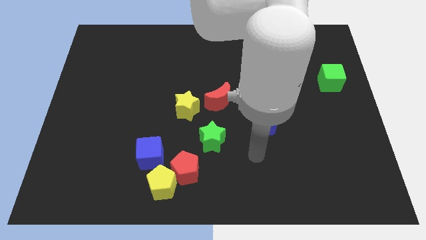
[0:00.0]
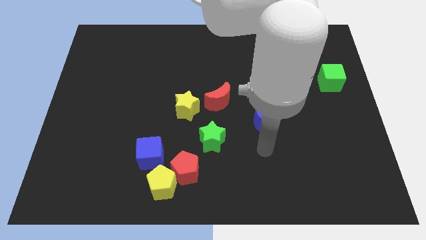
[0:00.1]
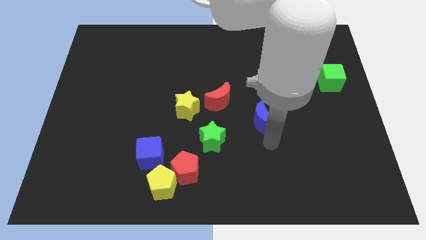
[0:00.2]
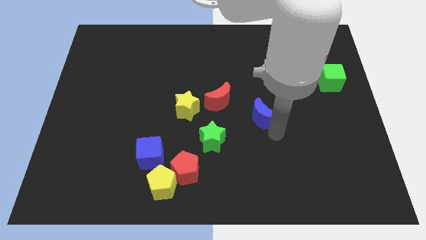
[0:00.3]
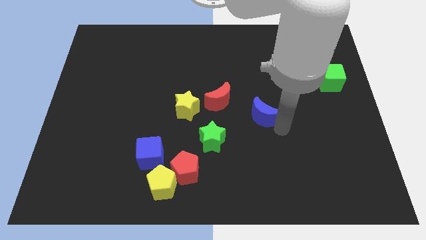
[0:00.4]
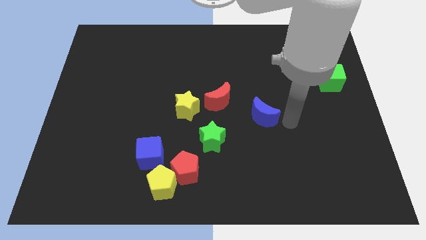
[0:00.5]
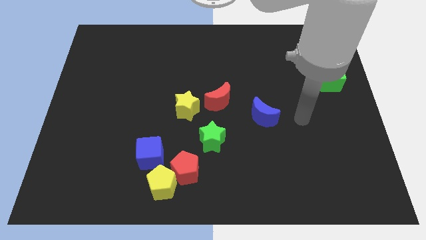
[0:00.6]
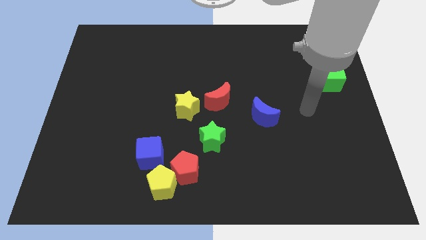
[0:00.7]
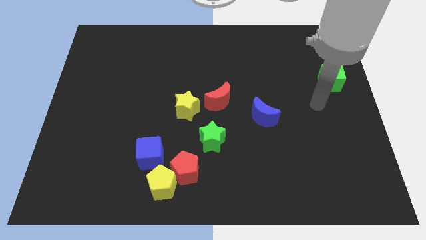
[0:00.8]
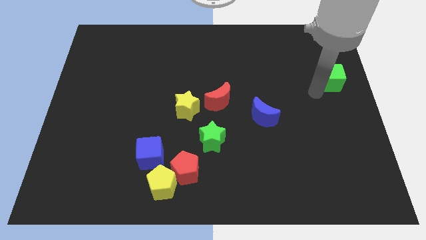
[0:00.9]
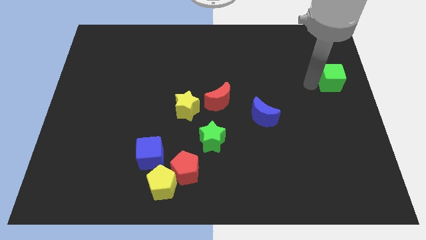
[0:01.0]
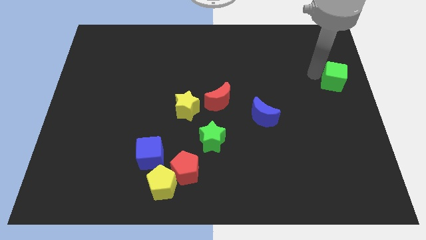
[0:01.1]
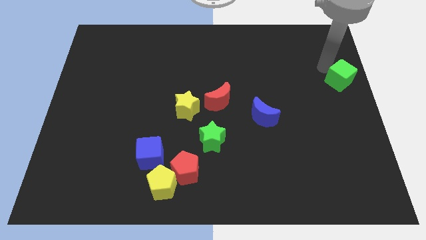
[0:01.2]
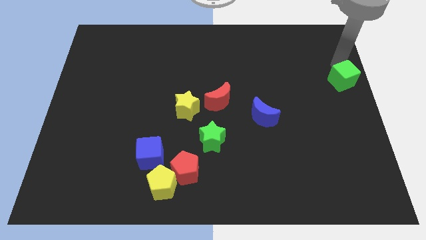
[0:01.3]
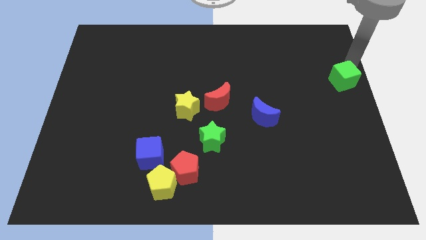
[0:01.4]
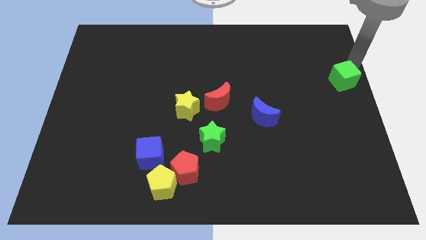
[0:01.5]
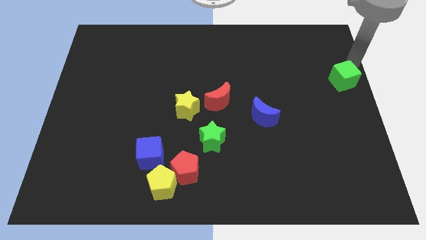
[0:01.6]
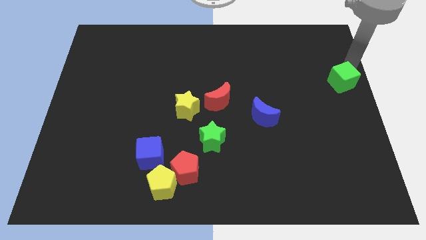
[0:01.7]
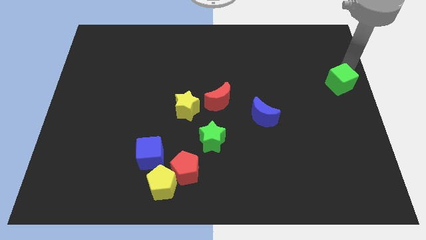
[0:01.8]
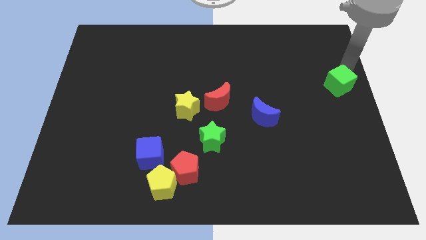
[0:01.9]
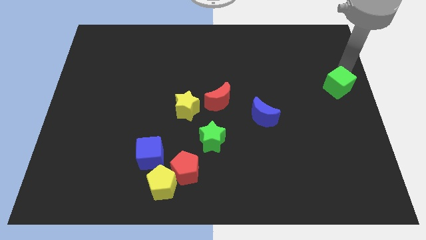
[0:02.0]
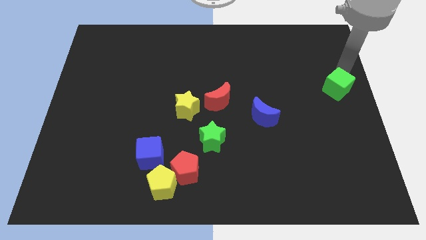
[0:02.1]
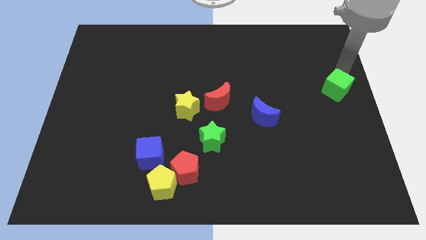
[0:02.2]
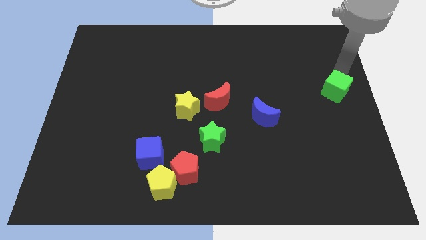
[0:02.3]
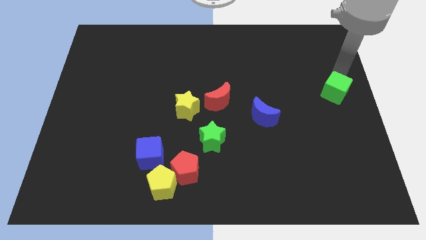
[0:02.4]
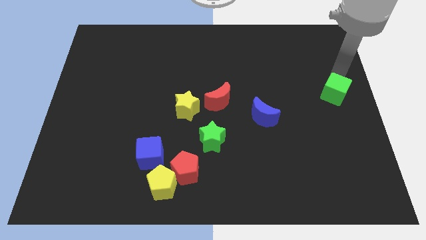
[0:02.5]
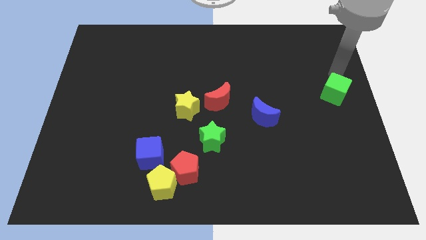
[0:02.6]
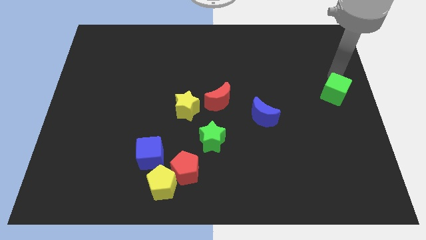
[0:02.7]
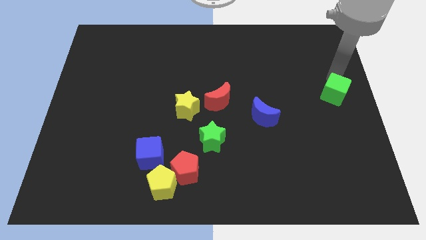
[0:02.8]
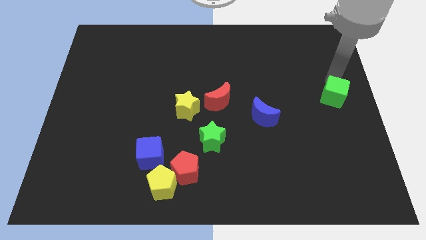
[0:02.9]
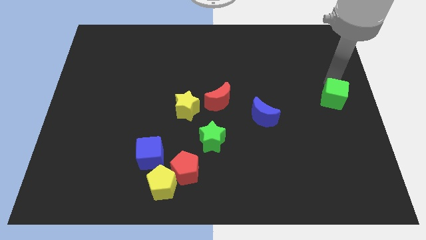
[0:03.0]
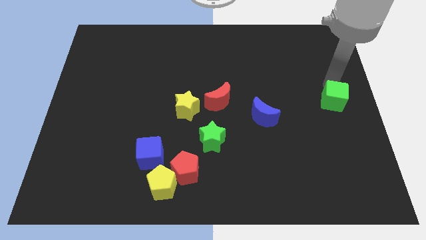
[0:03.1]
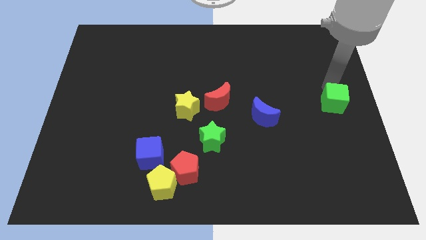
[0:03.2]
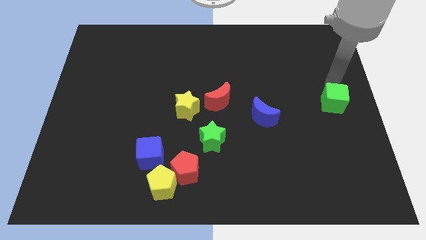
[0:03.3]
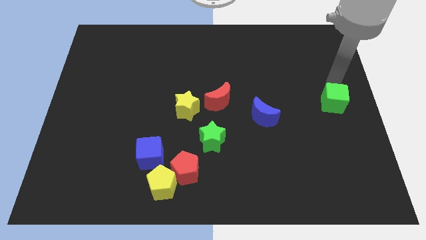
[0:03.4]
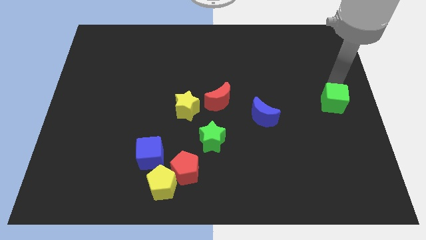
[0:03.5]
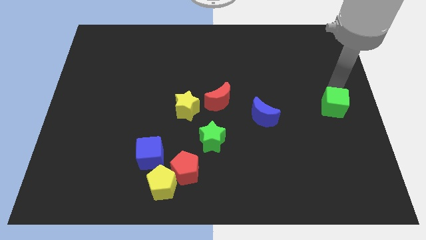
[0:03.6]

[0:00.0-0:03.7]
slide the green cube a little bit downwards

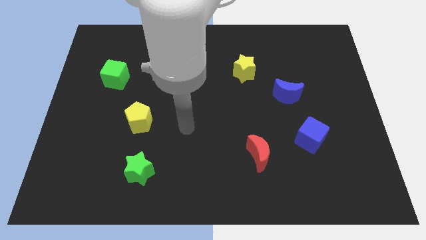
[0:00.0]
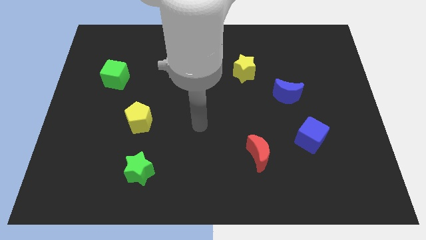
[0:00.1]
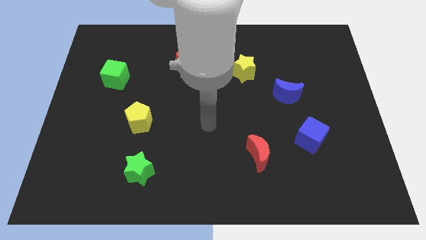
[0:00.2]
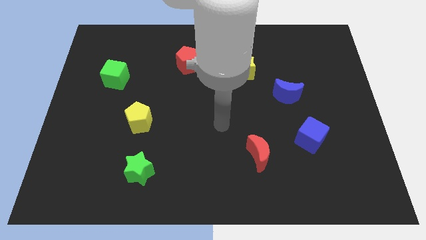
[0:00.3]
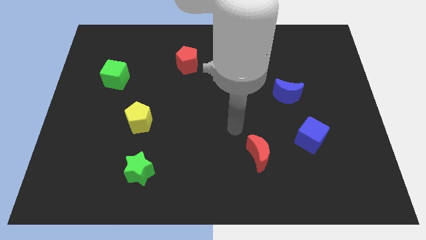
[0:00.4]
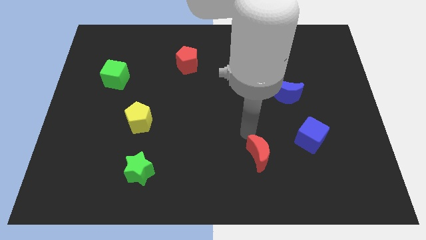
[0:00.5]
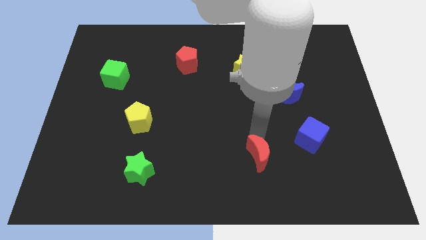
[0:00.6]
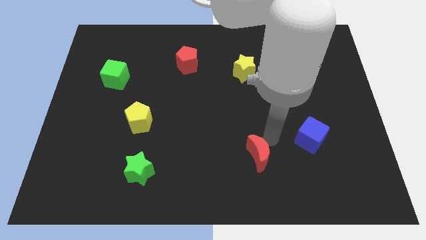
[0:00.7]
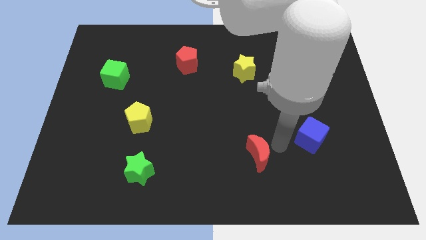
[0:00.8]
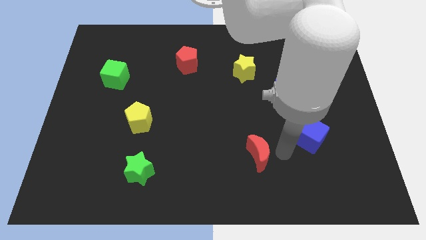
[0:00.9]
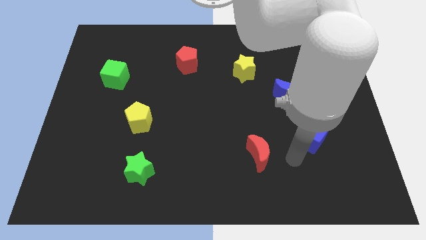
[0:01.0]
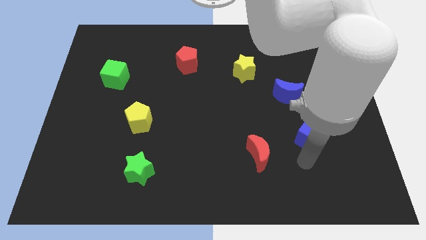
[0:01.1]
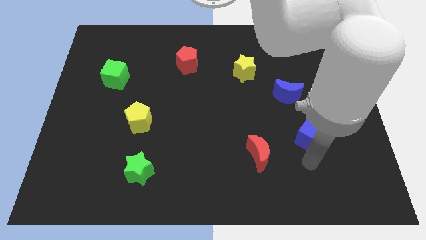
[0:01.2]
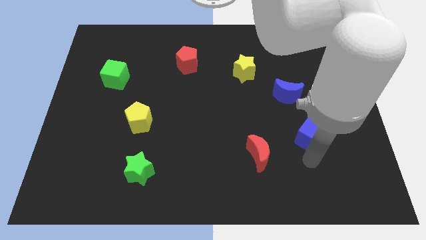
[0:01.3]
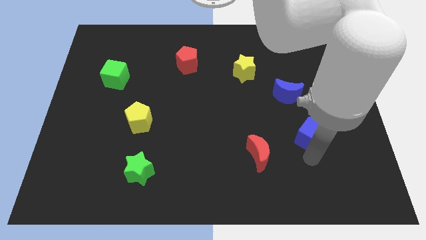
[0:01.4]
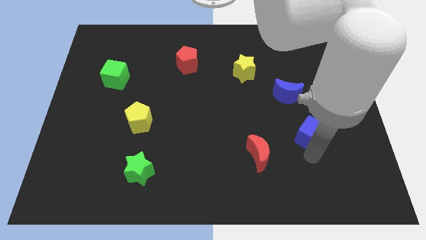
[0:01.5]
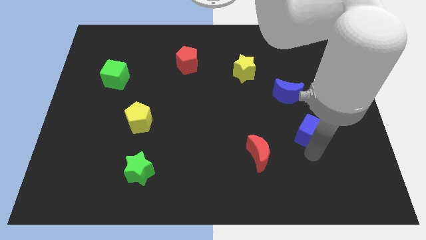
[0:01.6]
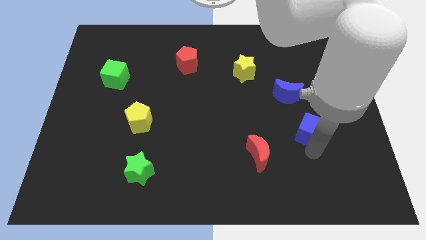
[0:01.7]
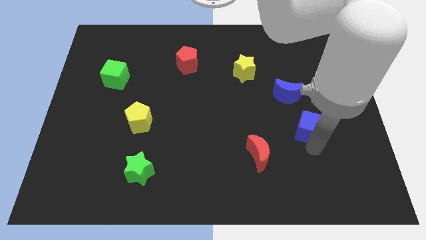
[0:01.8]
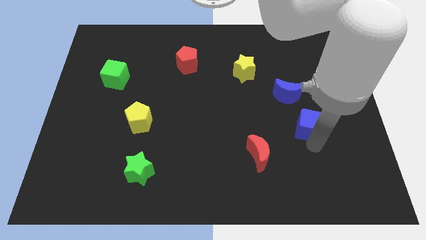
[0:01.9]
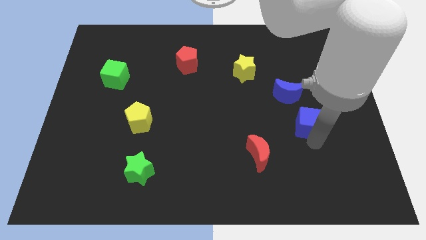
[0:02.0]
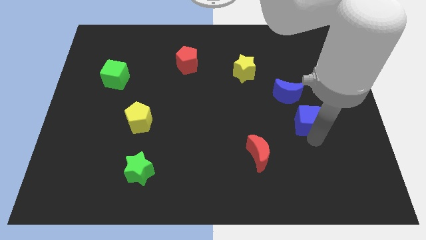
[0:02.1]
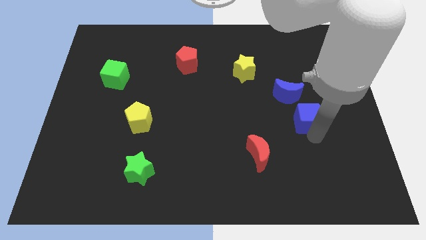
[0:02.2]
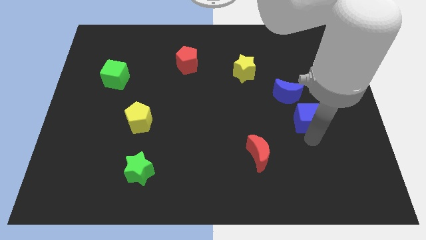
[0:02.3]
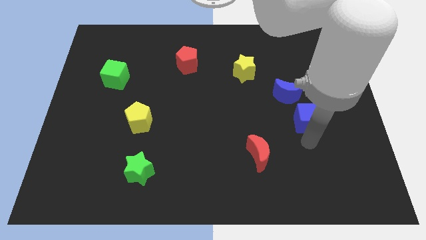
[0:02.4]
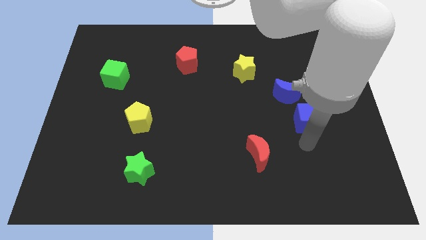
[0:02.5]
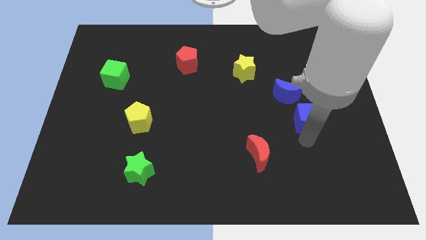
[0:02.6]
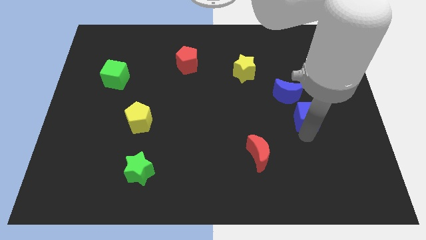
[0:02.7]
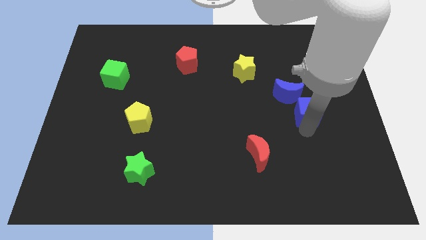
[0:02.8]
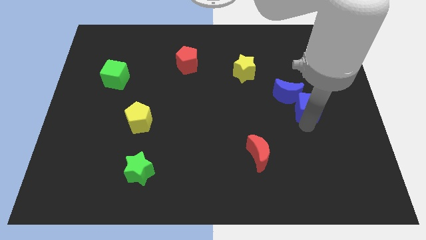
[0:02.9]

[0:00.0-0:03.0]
move the blue cube up somewhat

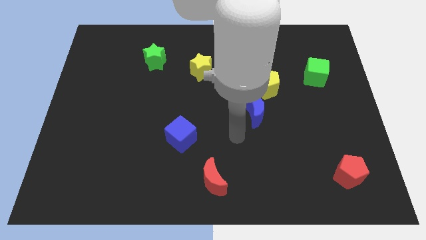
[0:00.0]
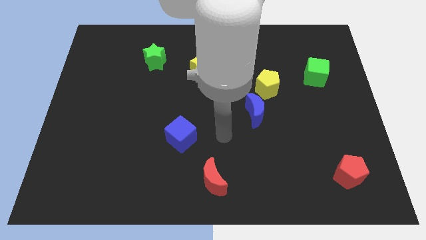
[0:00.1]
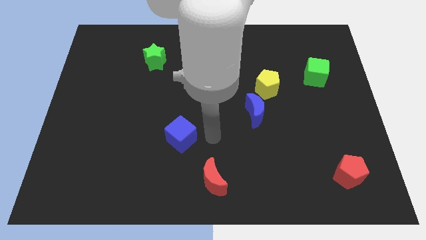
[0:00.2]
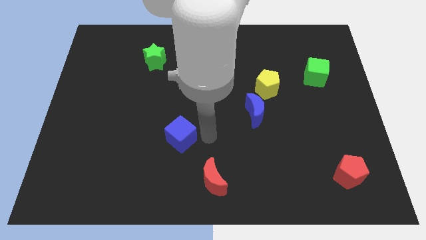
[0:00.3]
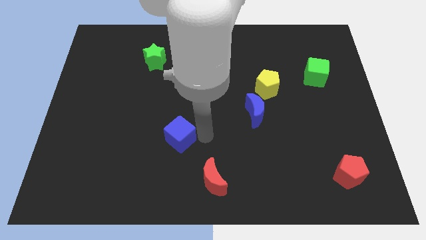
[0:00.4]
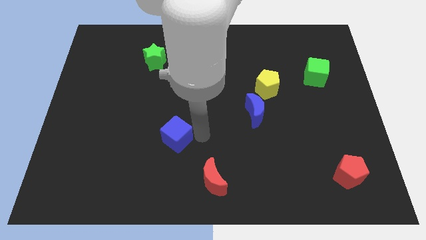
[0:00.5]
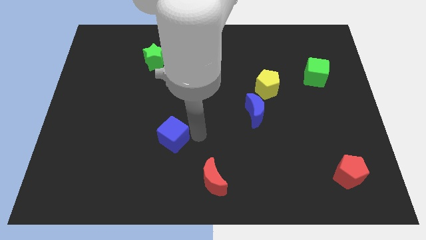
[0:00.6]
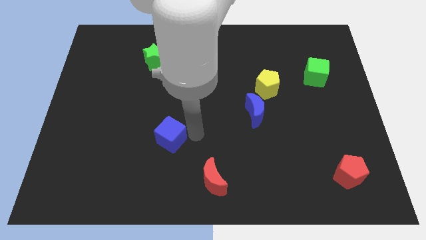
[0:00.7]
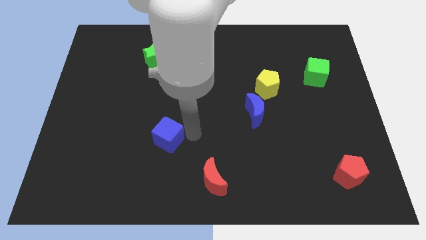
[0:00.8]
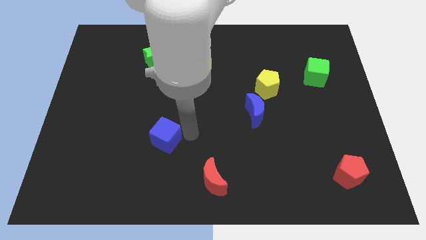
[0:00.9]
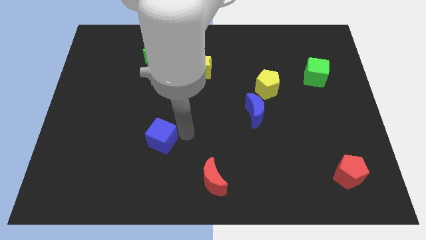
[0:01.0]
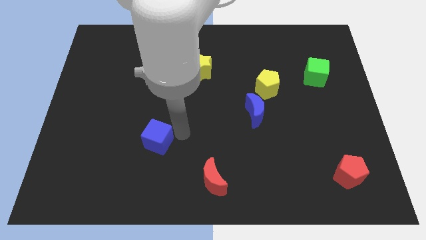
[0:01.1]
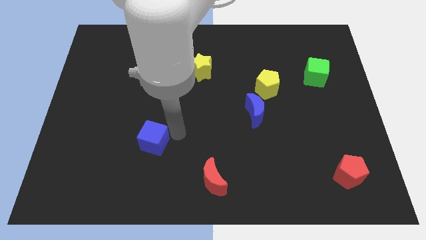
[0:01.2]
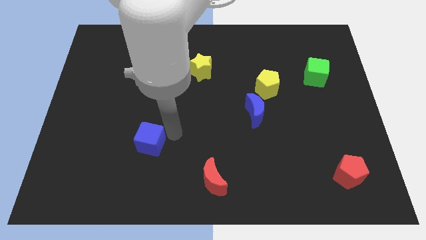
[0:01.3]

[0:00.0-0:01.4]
move the blue cube a little left

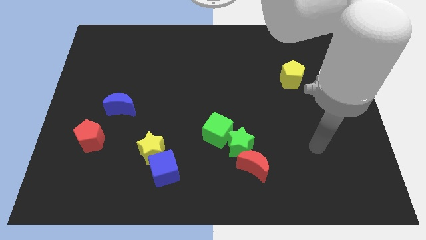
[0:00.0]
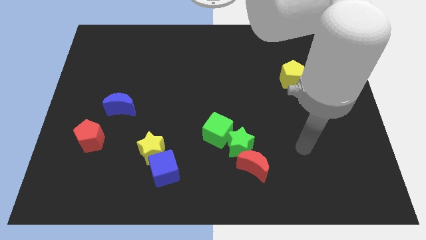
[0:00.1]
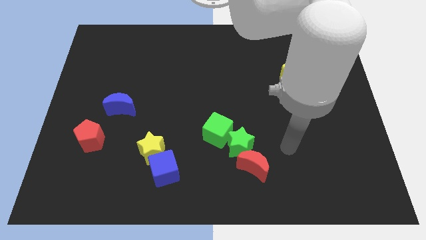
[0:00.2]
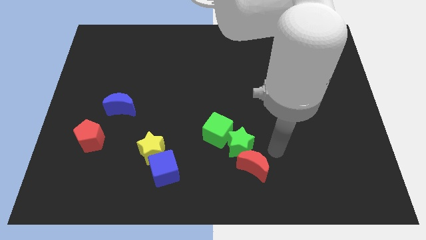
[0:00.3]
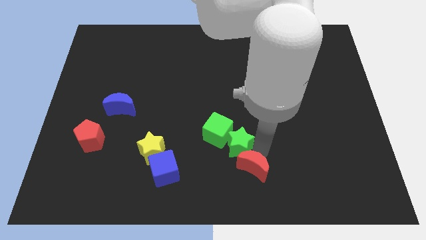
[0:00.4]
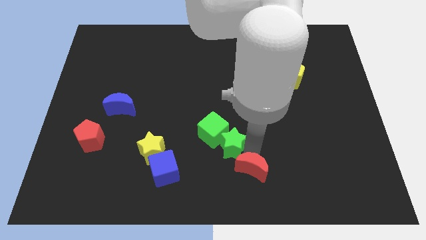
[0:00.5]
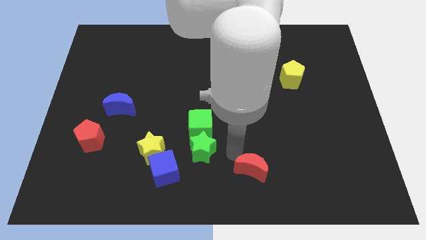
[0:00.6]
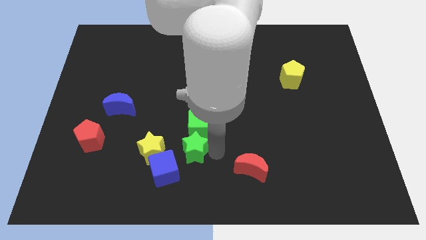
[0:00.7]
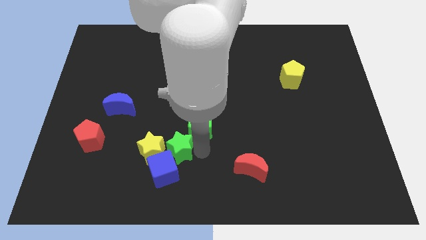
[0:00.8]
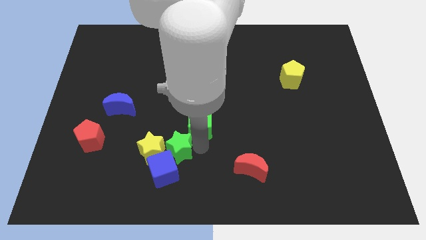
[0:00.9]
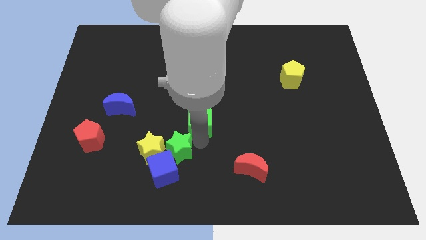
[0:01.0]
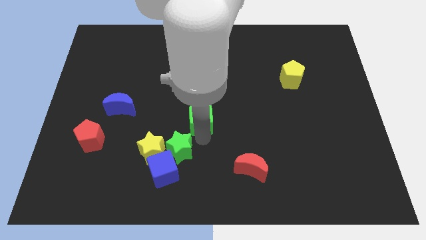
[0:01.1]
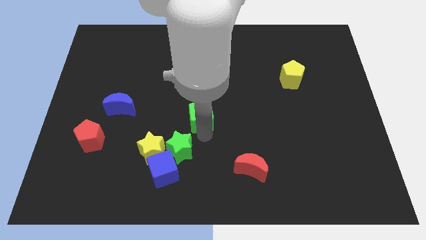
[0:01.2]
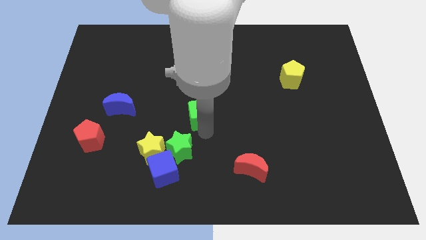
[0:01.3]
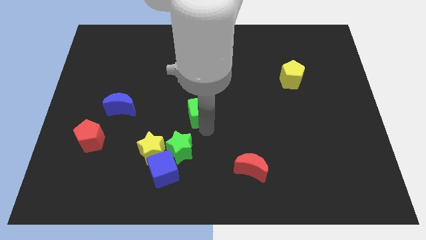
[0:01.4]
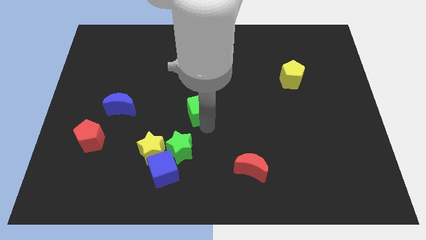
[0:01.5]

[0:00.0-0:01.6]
move the green cube a little bit diagonally up and left
